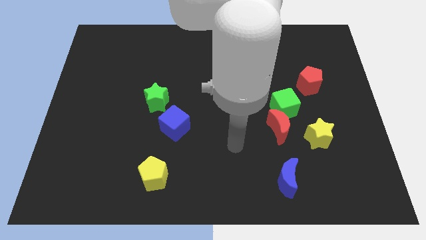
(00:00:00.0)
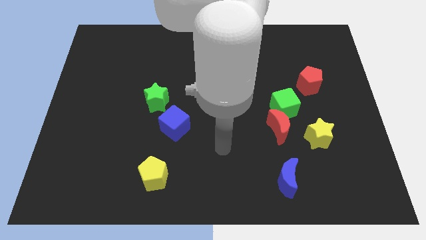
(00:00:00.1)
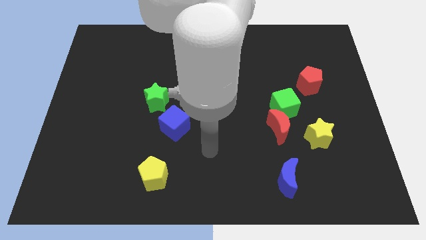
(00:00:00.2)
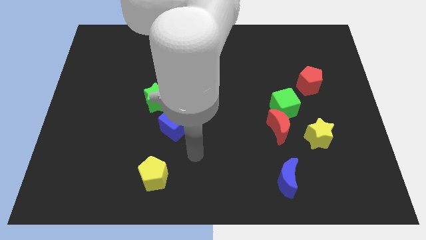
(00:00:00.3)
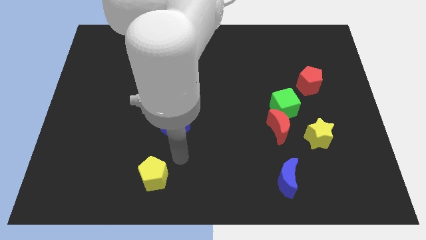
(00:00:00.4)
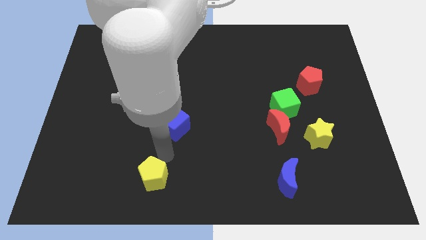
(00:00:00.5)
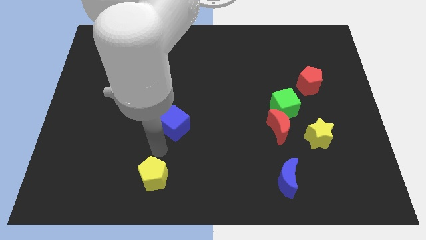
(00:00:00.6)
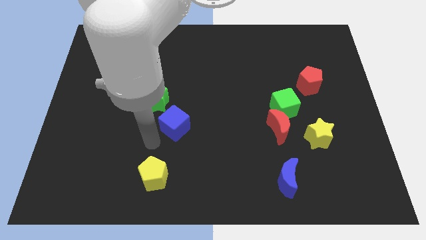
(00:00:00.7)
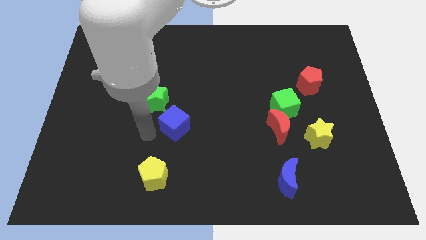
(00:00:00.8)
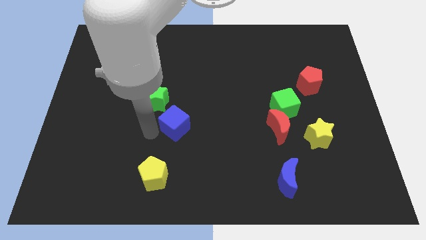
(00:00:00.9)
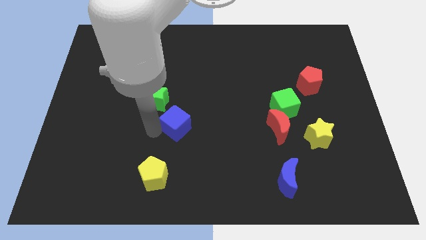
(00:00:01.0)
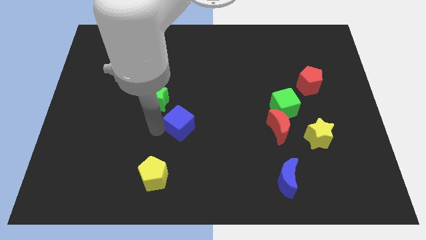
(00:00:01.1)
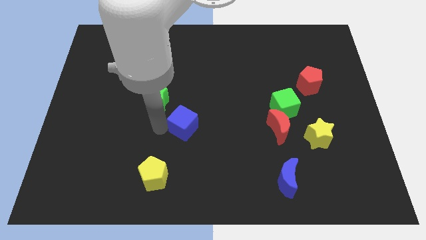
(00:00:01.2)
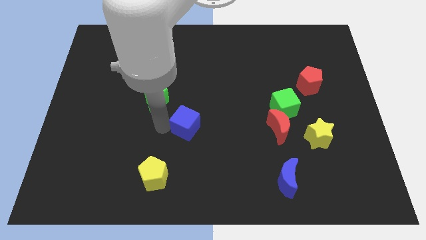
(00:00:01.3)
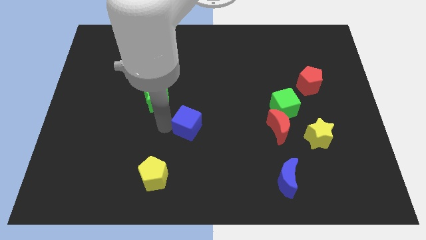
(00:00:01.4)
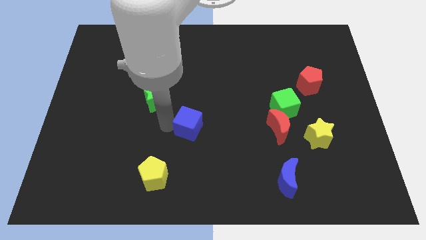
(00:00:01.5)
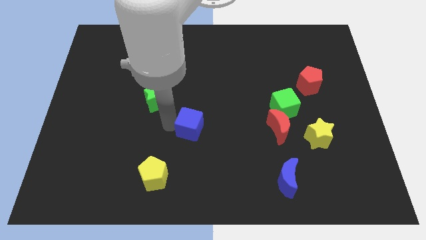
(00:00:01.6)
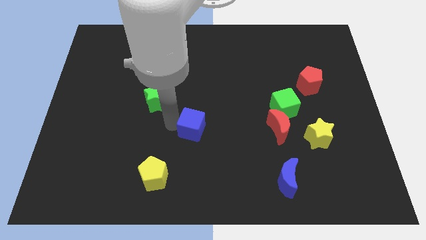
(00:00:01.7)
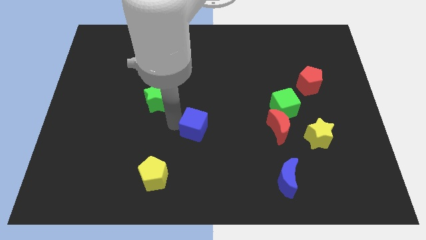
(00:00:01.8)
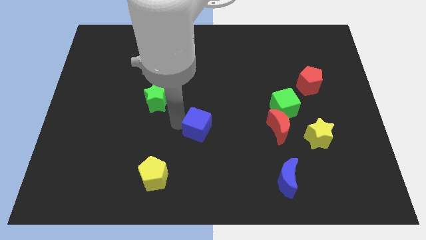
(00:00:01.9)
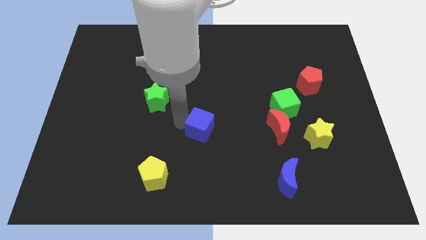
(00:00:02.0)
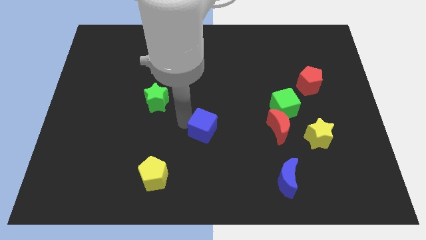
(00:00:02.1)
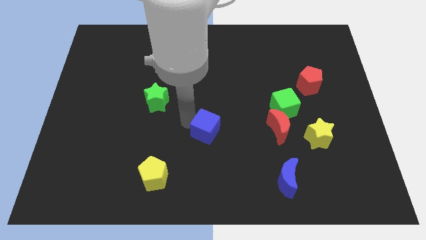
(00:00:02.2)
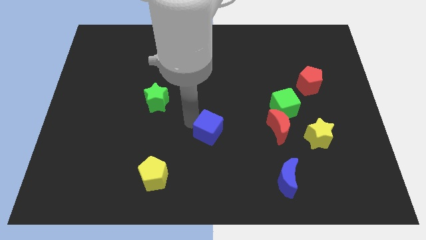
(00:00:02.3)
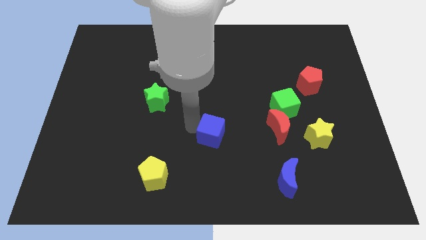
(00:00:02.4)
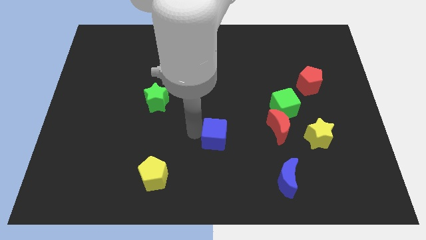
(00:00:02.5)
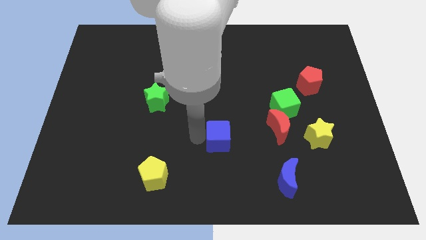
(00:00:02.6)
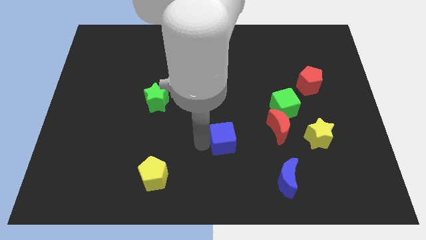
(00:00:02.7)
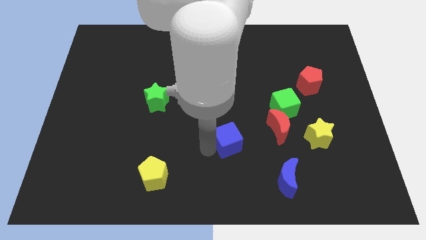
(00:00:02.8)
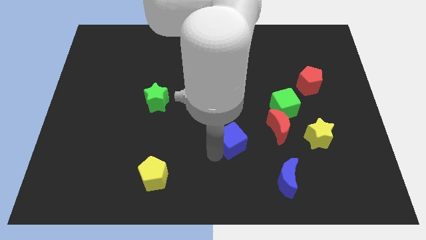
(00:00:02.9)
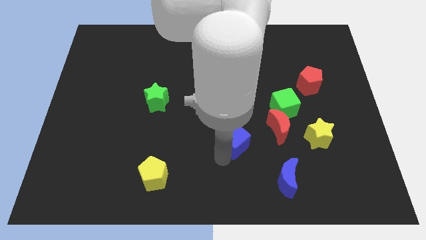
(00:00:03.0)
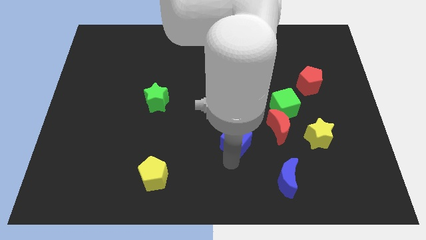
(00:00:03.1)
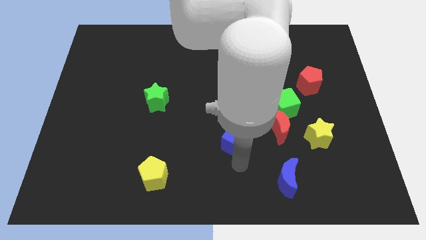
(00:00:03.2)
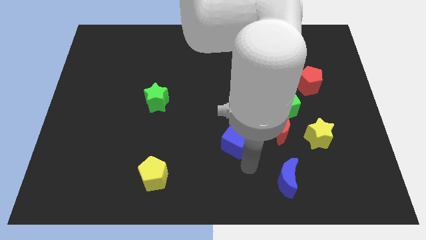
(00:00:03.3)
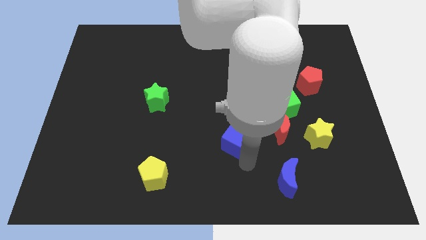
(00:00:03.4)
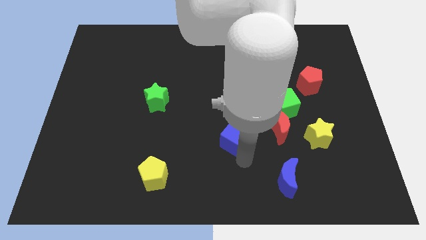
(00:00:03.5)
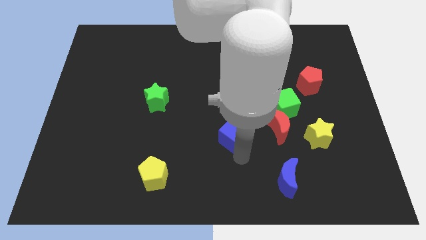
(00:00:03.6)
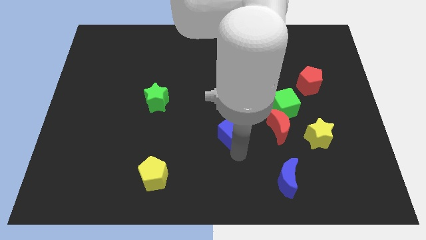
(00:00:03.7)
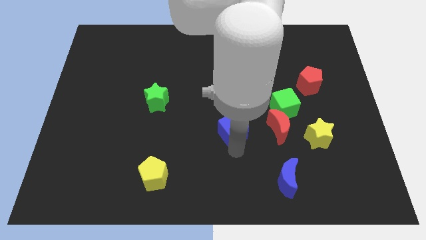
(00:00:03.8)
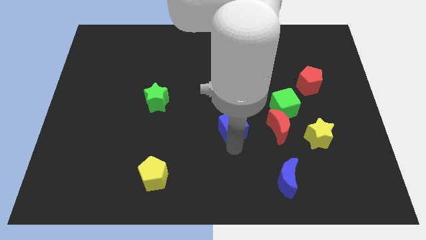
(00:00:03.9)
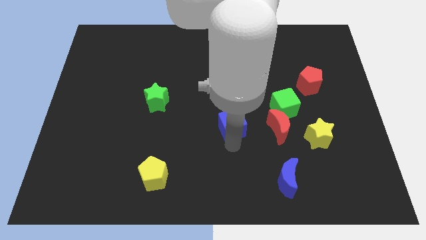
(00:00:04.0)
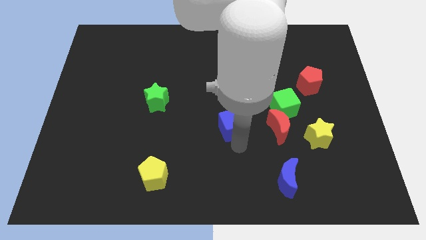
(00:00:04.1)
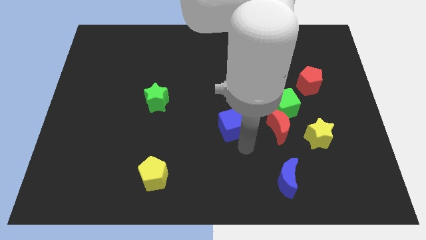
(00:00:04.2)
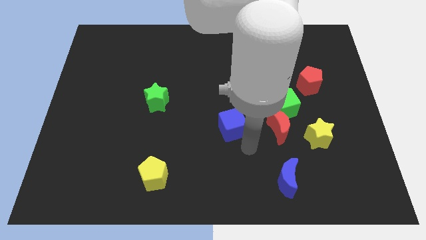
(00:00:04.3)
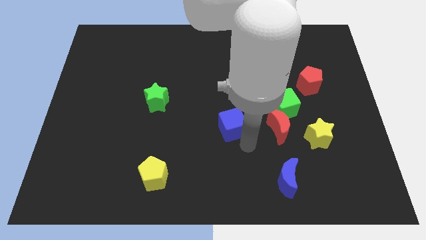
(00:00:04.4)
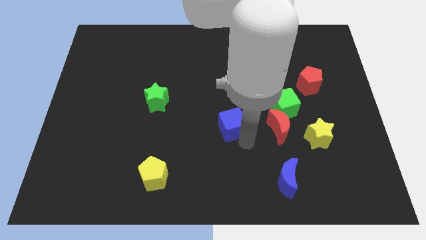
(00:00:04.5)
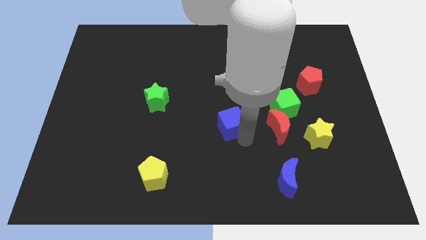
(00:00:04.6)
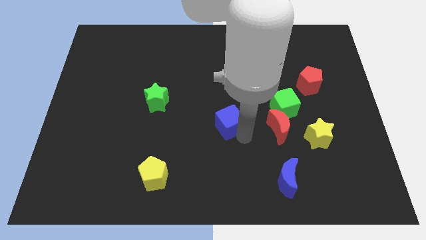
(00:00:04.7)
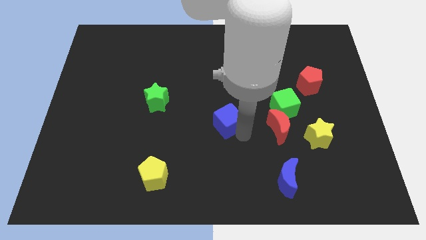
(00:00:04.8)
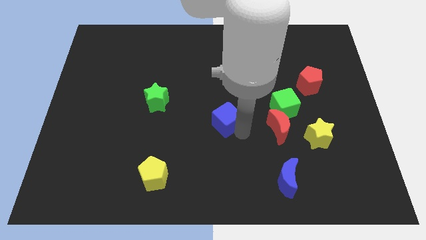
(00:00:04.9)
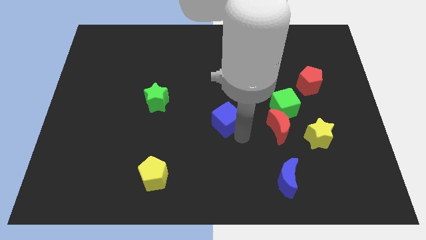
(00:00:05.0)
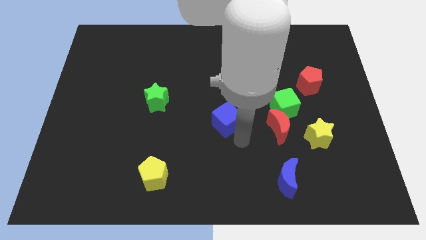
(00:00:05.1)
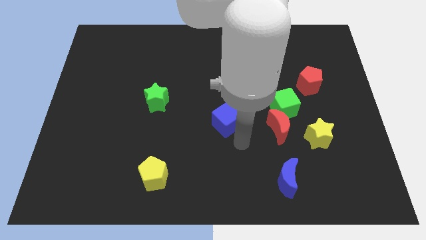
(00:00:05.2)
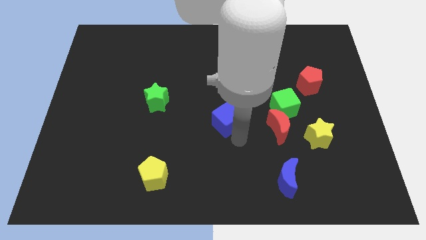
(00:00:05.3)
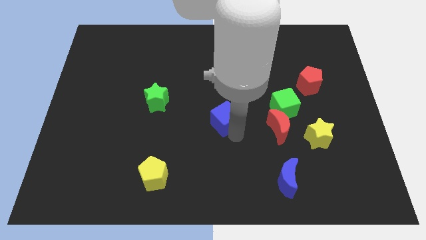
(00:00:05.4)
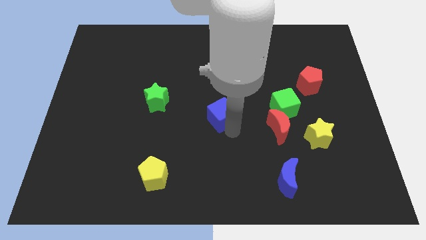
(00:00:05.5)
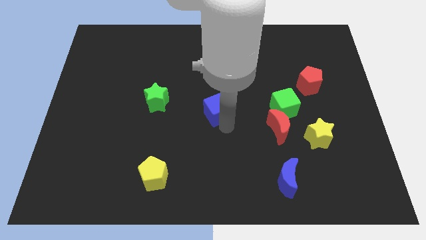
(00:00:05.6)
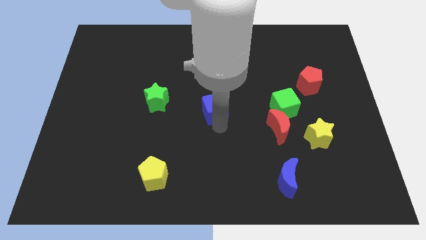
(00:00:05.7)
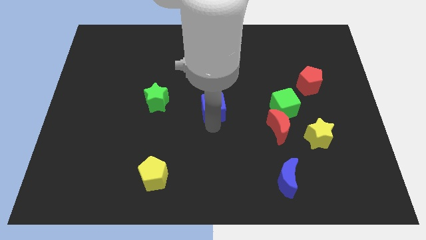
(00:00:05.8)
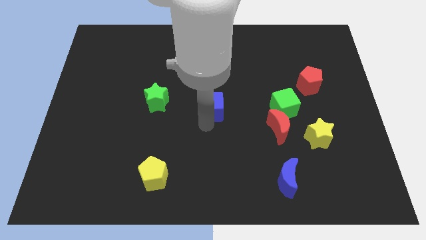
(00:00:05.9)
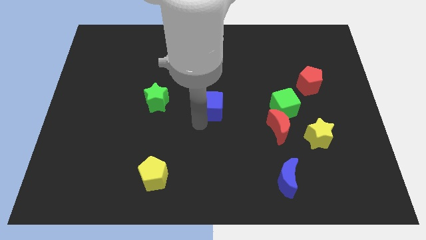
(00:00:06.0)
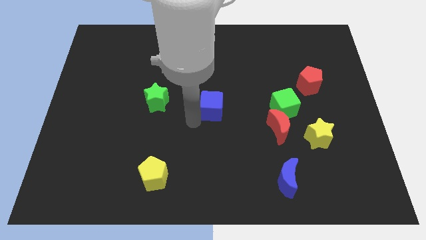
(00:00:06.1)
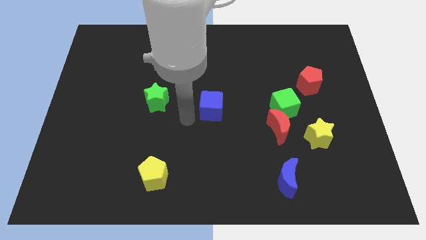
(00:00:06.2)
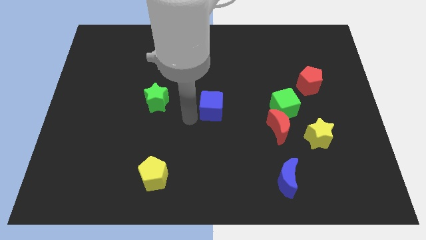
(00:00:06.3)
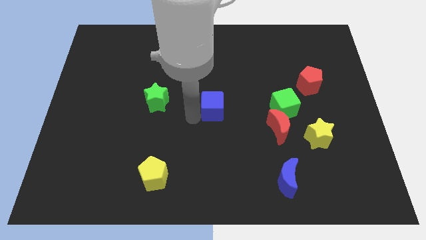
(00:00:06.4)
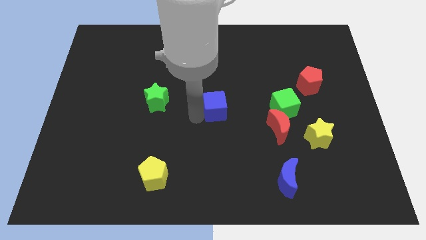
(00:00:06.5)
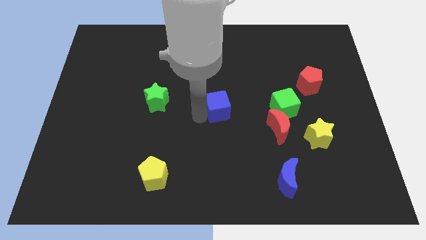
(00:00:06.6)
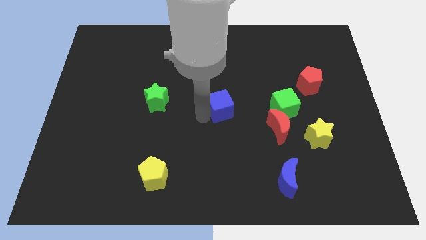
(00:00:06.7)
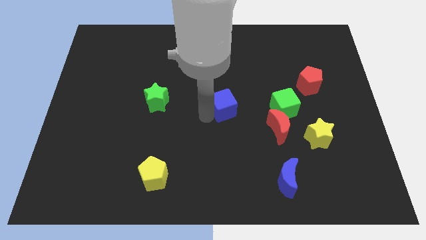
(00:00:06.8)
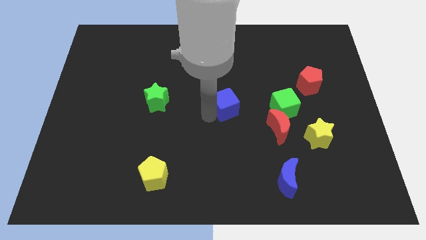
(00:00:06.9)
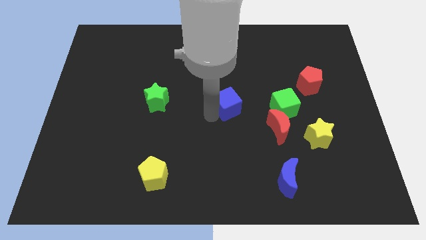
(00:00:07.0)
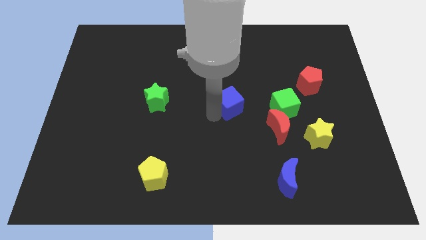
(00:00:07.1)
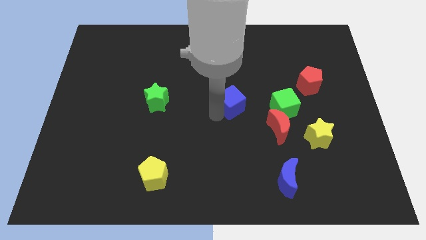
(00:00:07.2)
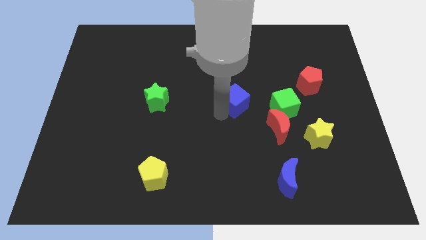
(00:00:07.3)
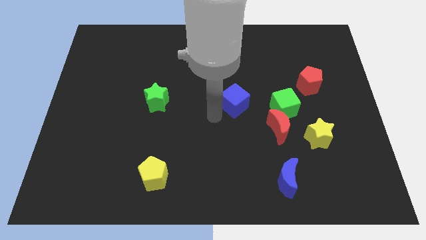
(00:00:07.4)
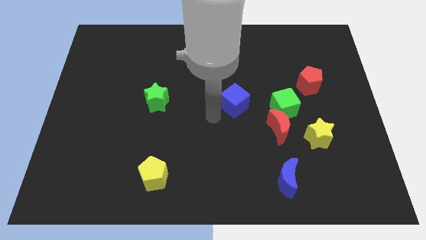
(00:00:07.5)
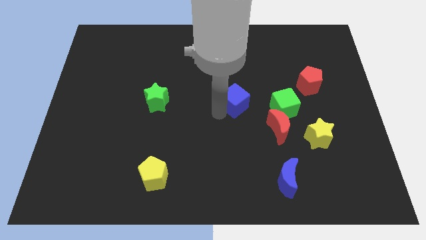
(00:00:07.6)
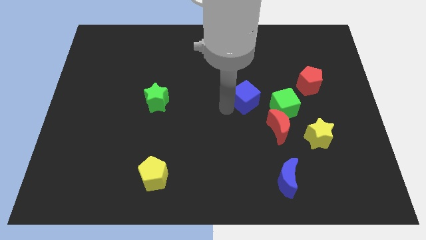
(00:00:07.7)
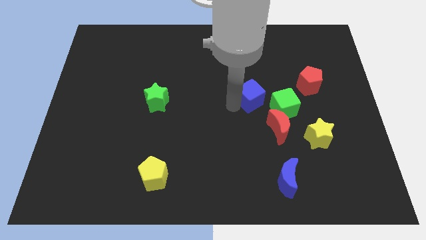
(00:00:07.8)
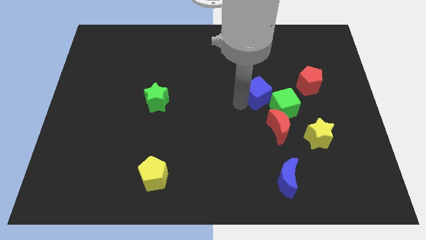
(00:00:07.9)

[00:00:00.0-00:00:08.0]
push the blue cube to the left of the red pentagon
